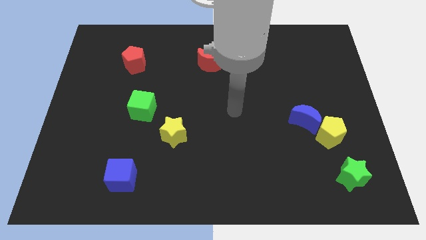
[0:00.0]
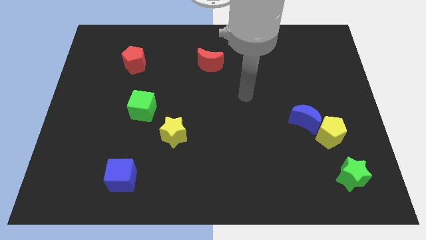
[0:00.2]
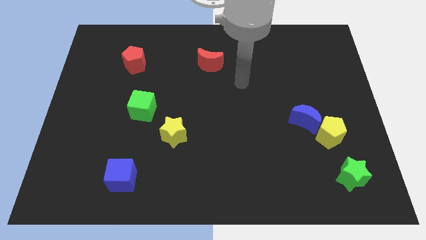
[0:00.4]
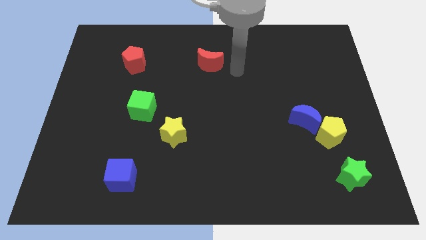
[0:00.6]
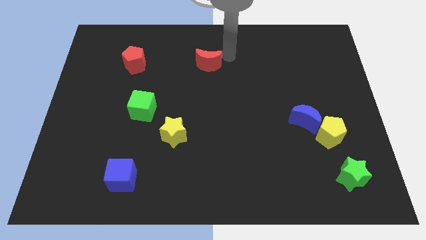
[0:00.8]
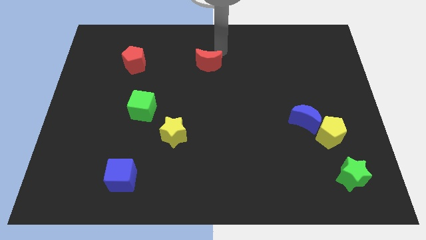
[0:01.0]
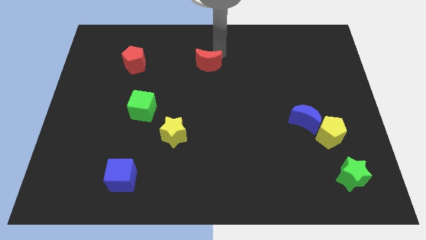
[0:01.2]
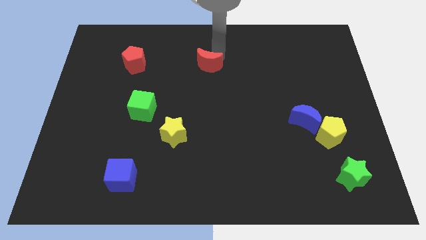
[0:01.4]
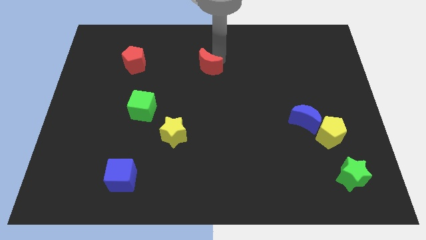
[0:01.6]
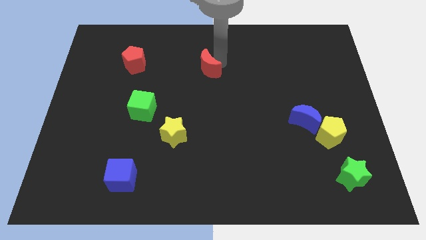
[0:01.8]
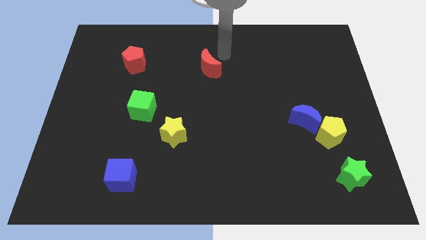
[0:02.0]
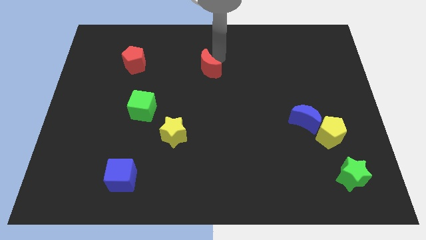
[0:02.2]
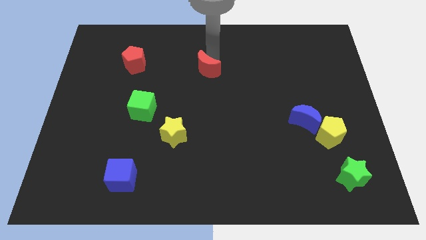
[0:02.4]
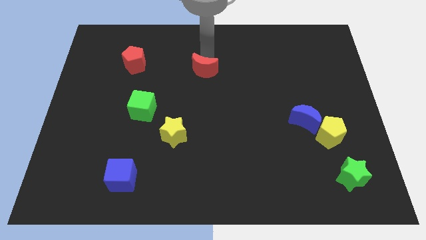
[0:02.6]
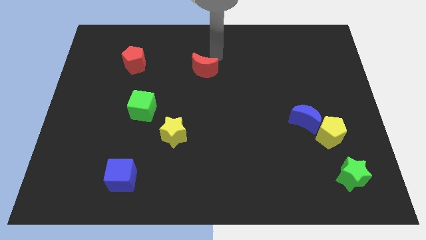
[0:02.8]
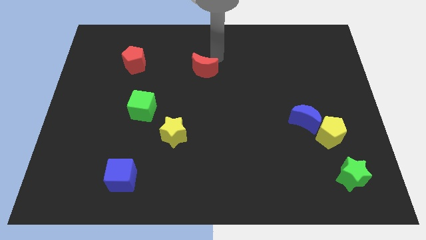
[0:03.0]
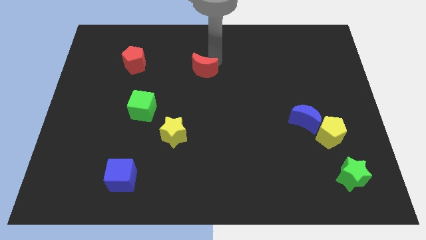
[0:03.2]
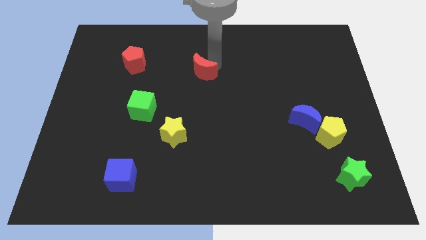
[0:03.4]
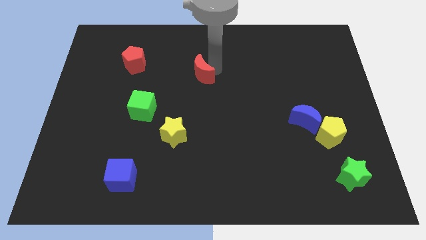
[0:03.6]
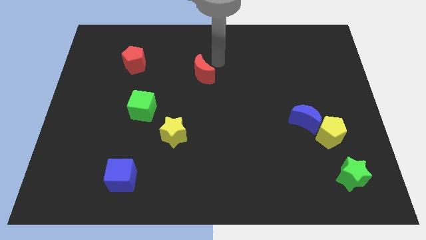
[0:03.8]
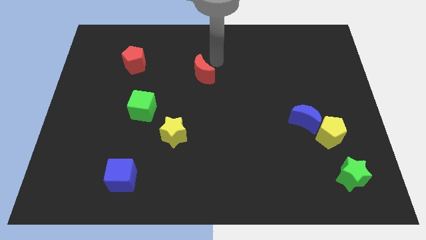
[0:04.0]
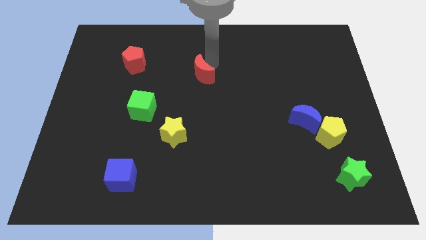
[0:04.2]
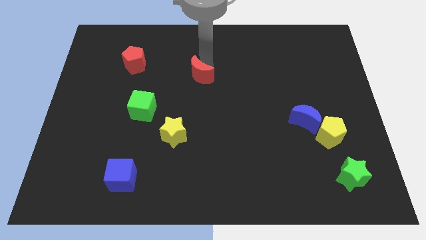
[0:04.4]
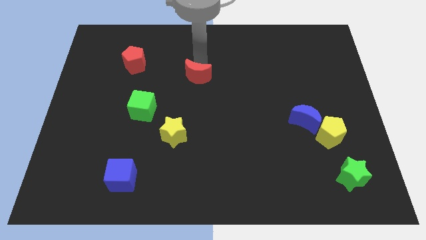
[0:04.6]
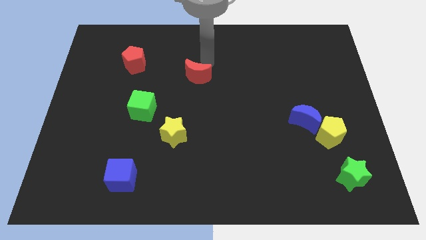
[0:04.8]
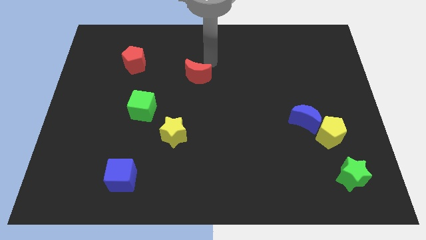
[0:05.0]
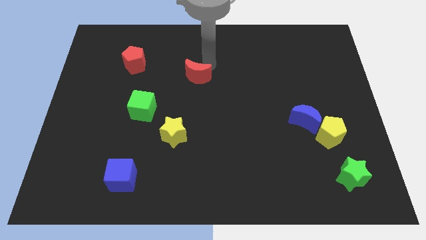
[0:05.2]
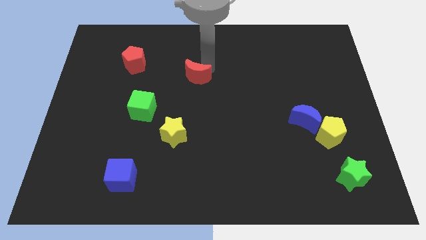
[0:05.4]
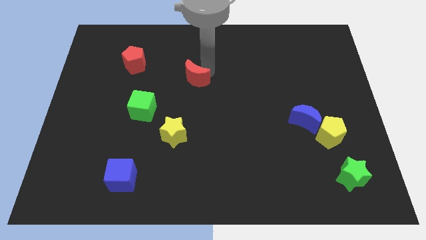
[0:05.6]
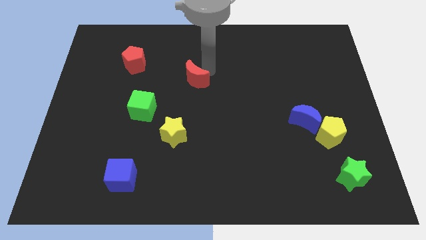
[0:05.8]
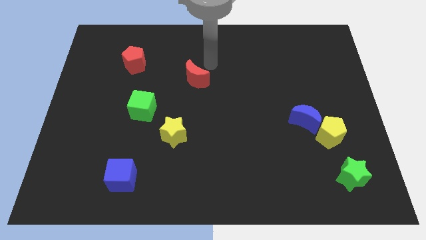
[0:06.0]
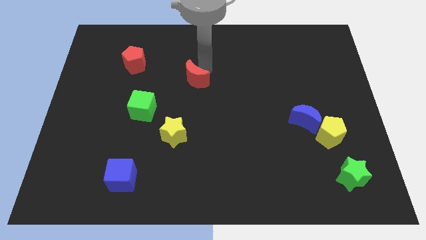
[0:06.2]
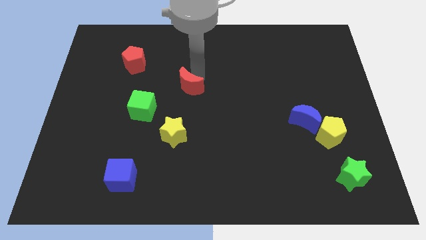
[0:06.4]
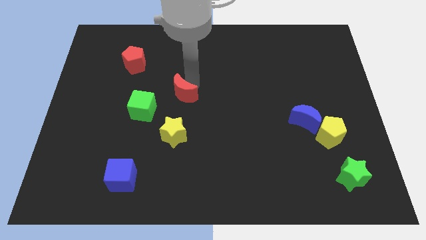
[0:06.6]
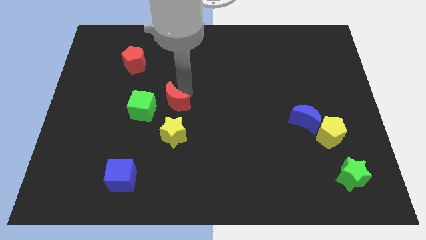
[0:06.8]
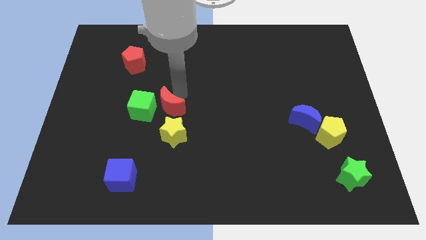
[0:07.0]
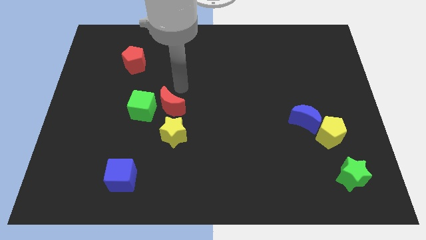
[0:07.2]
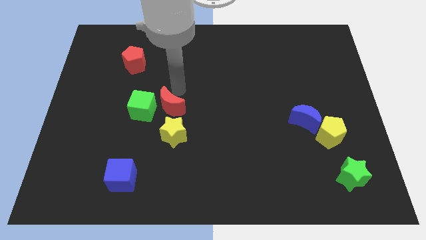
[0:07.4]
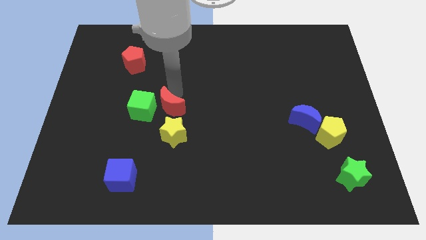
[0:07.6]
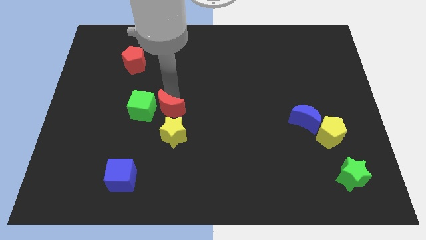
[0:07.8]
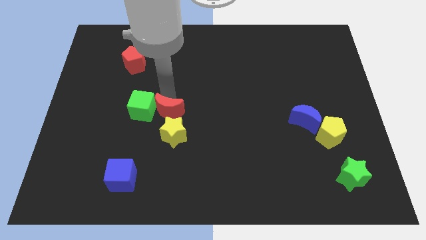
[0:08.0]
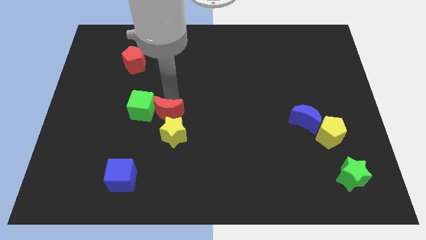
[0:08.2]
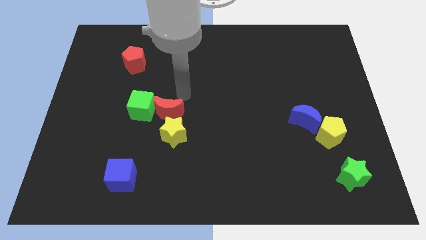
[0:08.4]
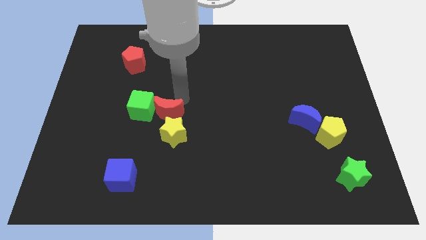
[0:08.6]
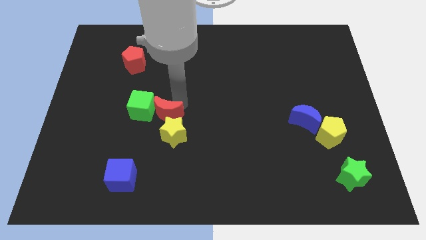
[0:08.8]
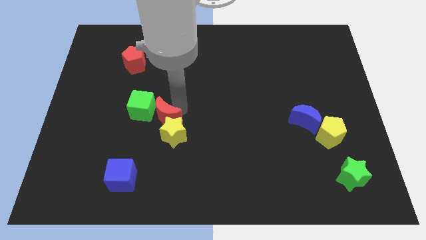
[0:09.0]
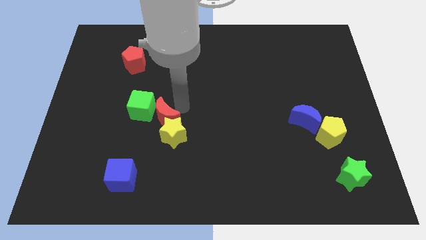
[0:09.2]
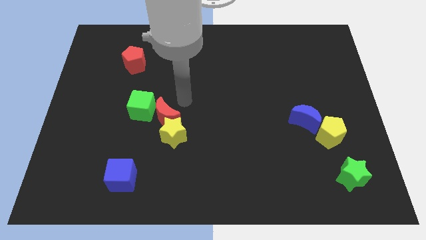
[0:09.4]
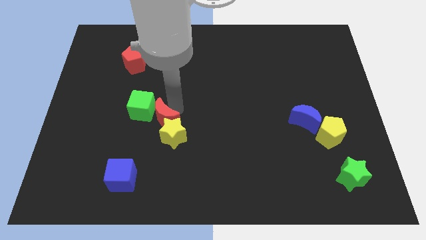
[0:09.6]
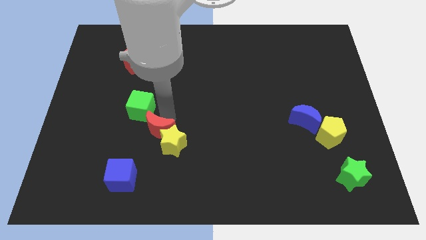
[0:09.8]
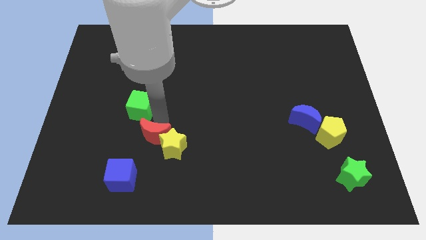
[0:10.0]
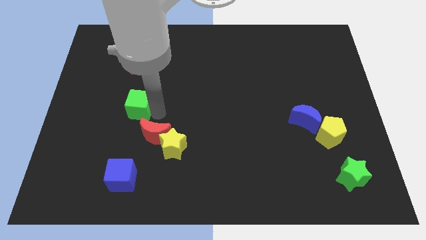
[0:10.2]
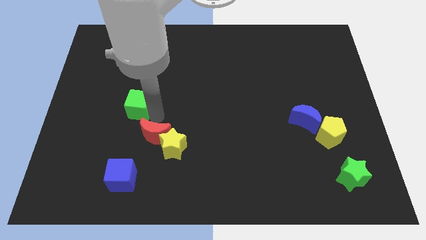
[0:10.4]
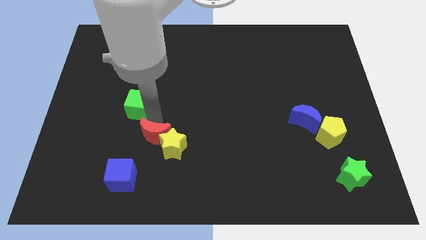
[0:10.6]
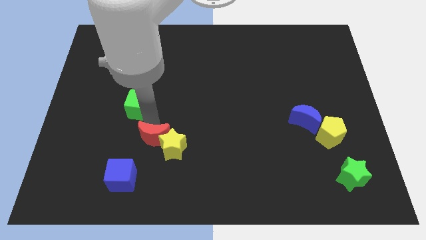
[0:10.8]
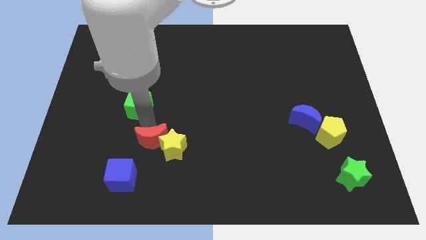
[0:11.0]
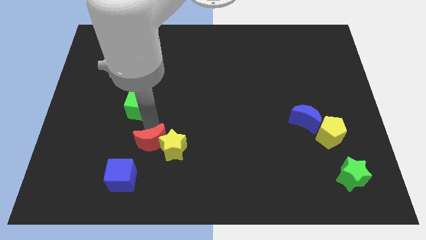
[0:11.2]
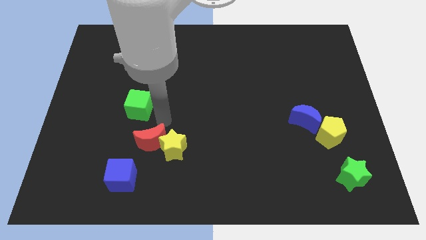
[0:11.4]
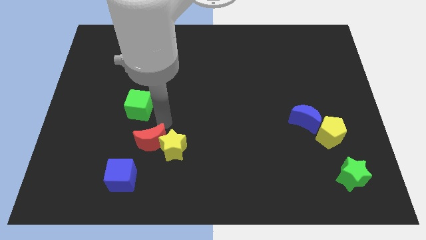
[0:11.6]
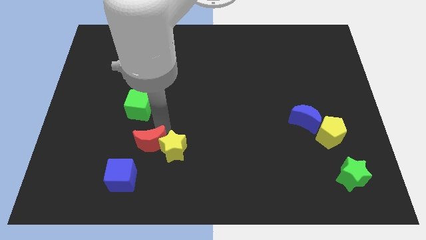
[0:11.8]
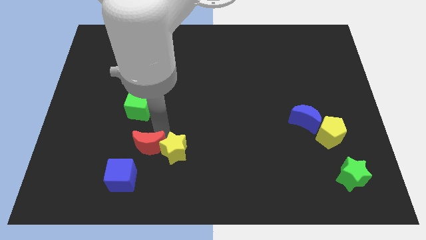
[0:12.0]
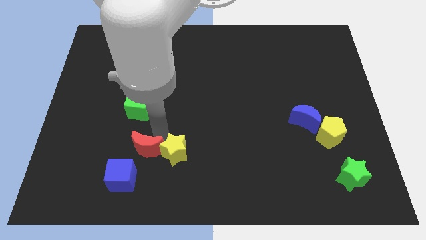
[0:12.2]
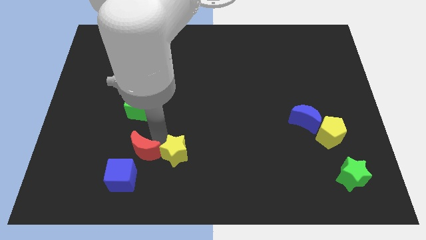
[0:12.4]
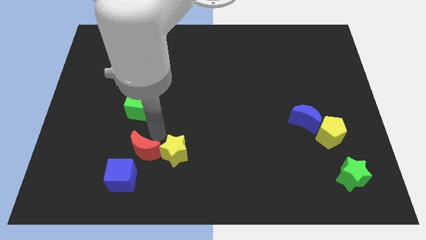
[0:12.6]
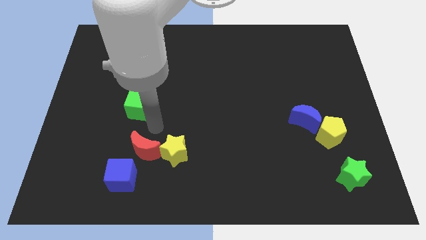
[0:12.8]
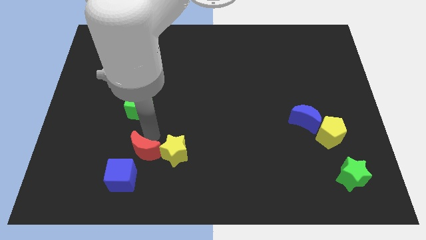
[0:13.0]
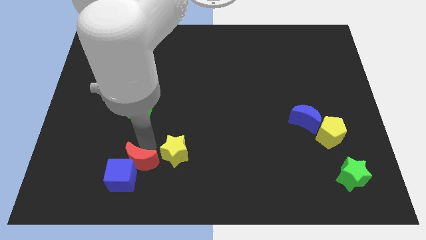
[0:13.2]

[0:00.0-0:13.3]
slide the red moon next to the blue cube
